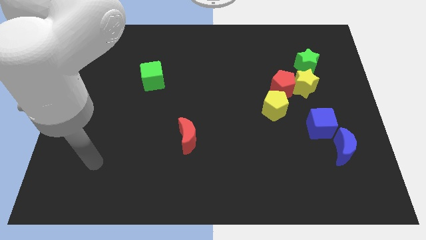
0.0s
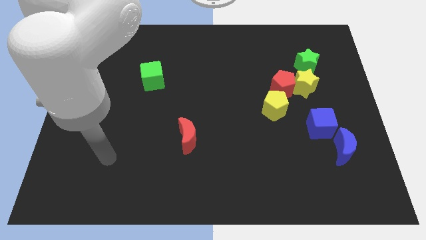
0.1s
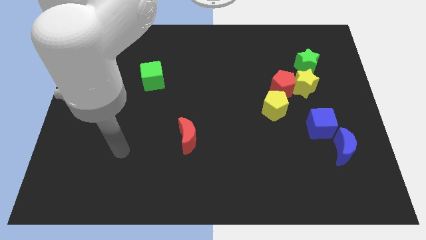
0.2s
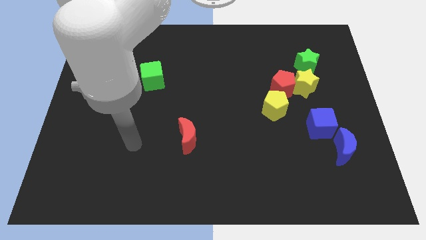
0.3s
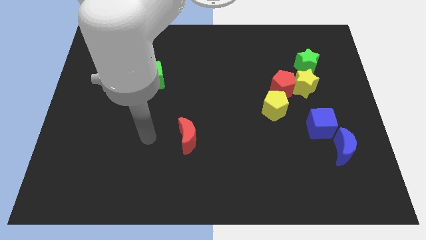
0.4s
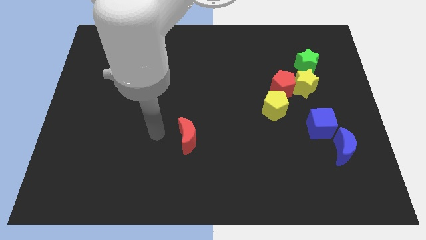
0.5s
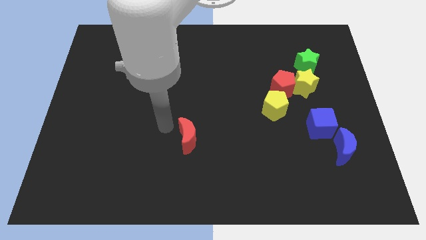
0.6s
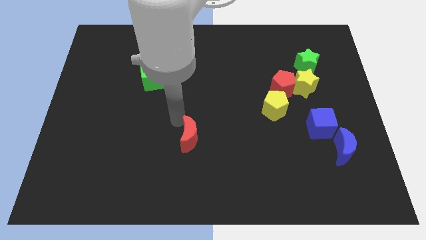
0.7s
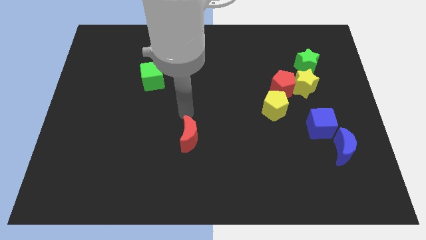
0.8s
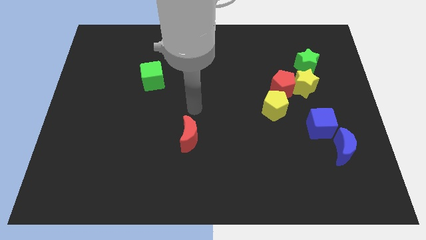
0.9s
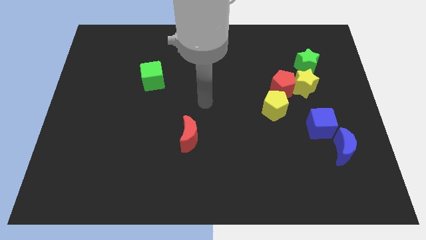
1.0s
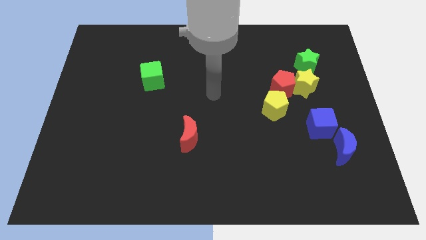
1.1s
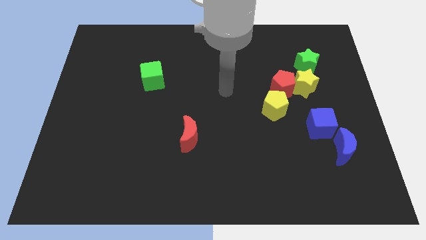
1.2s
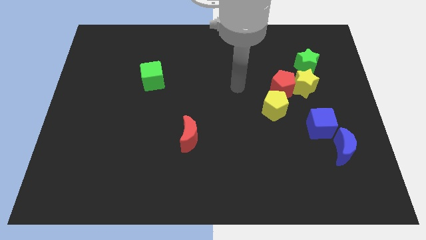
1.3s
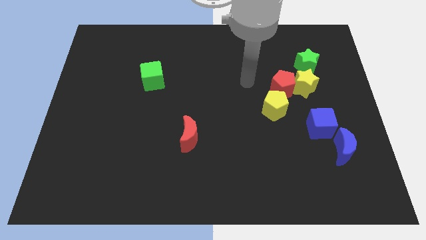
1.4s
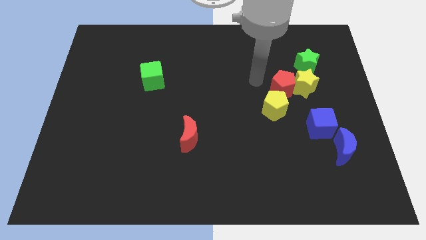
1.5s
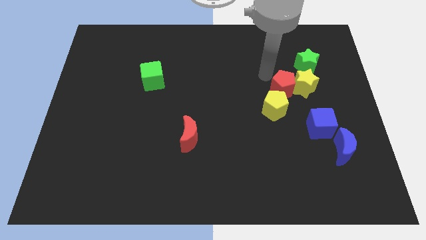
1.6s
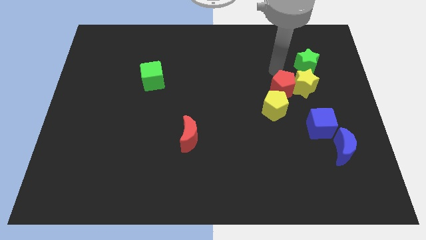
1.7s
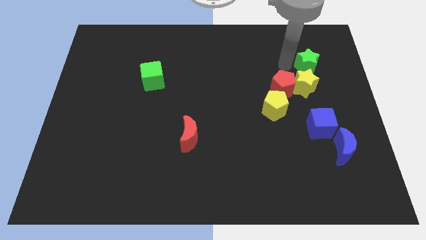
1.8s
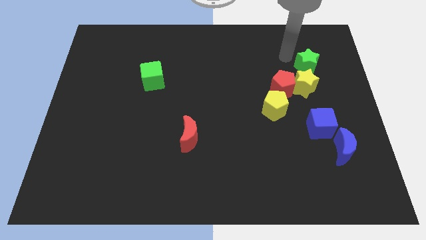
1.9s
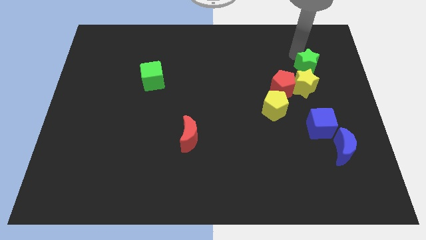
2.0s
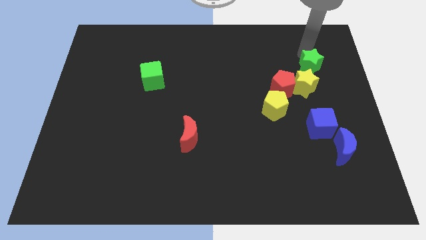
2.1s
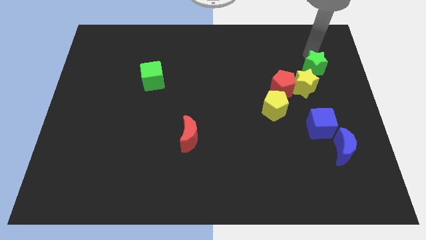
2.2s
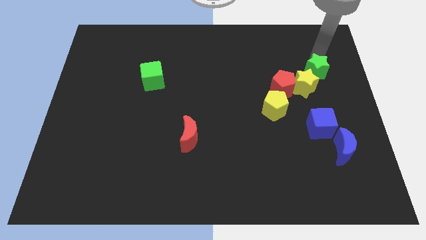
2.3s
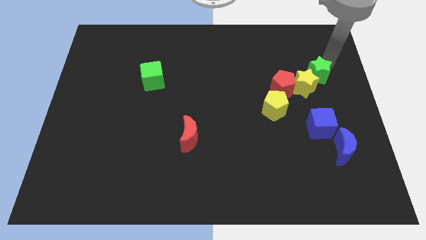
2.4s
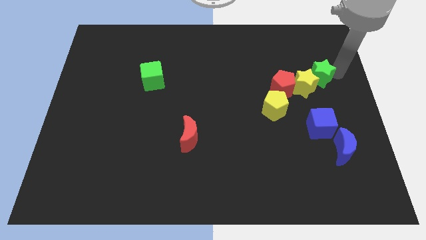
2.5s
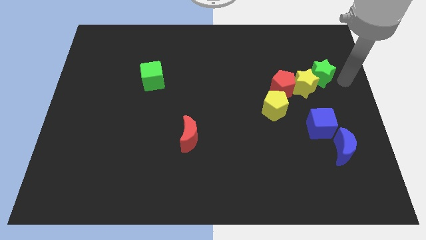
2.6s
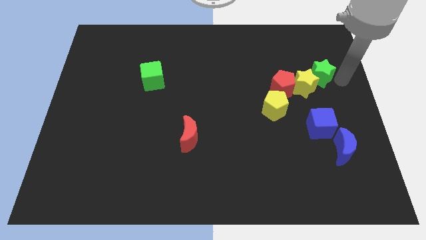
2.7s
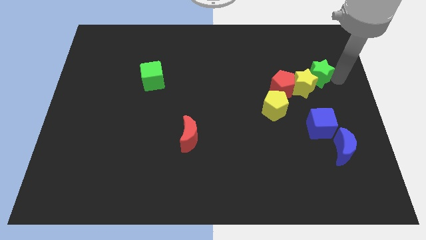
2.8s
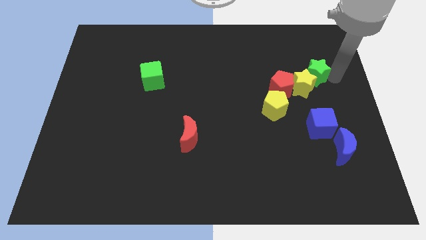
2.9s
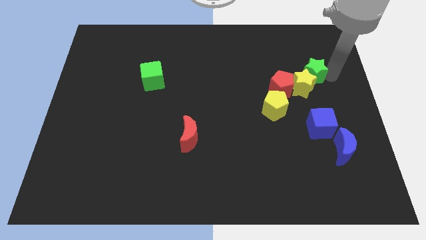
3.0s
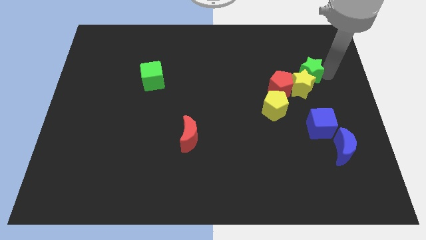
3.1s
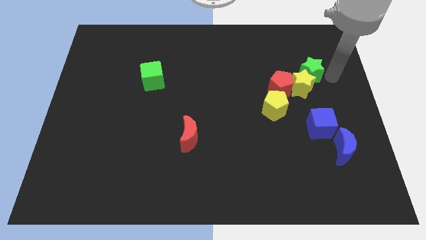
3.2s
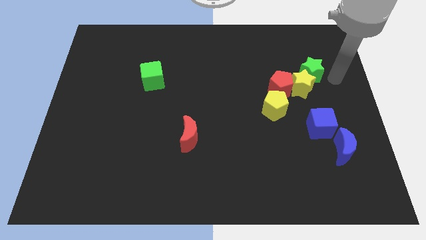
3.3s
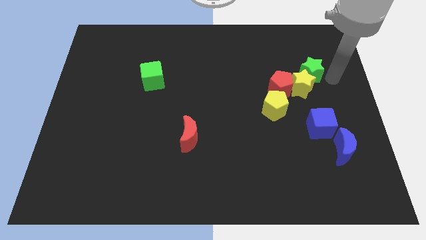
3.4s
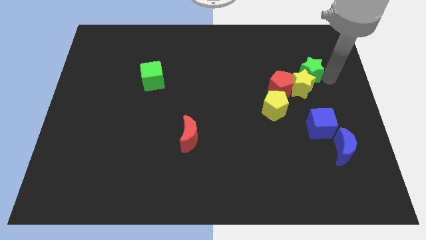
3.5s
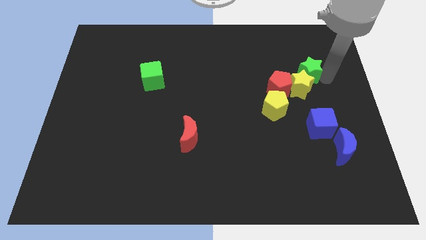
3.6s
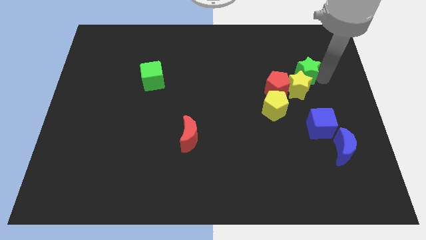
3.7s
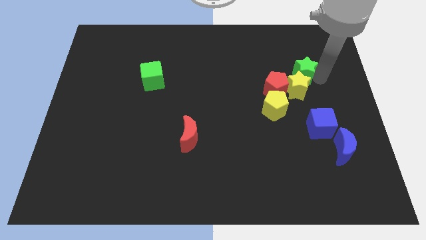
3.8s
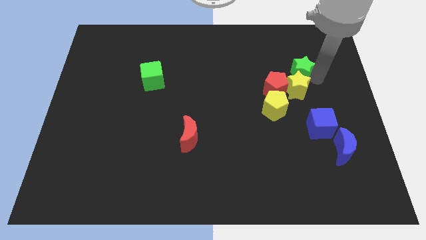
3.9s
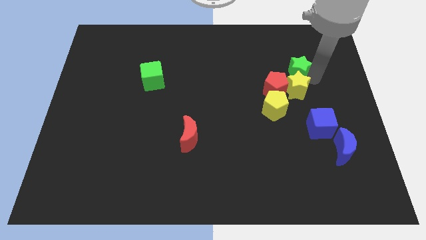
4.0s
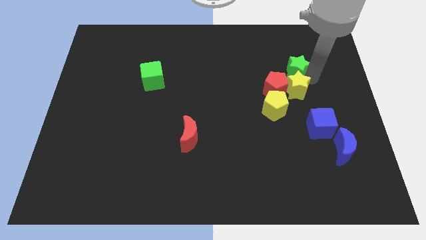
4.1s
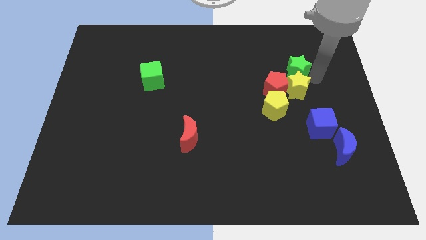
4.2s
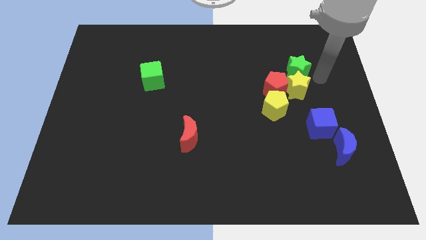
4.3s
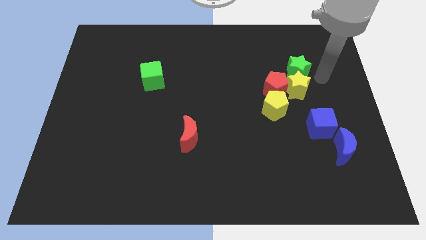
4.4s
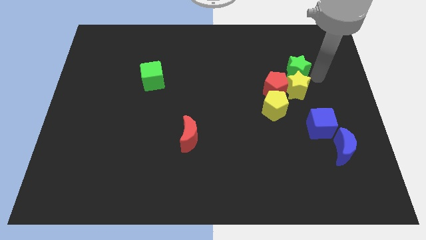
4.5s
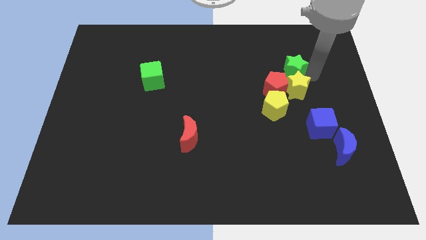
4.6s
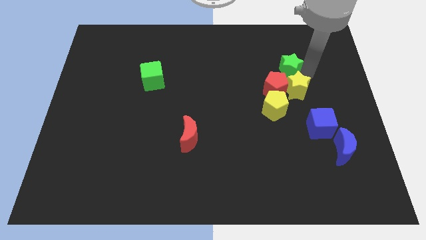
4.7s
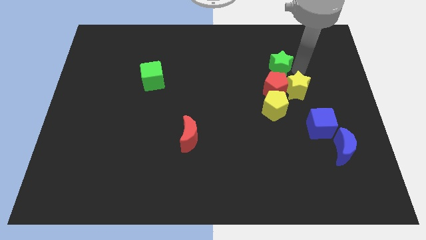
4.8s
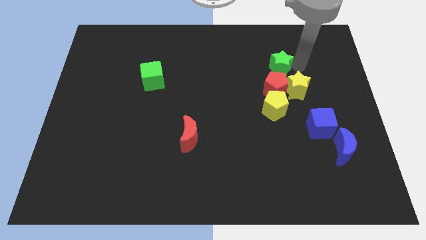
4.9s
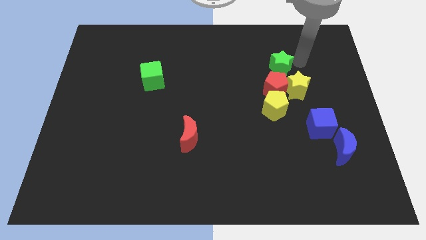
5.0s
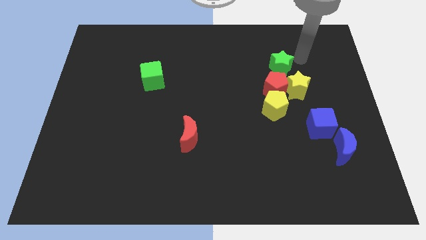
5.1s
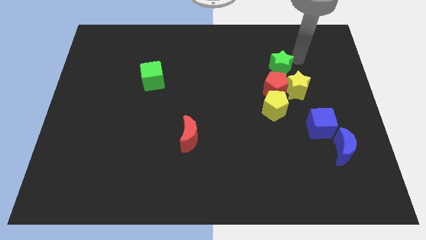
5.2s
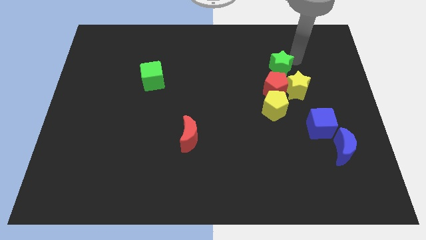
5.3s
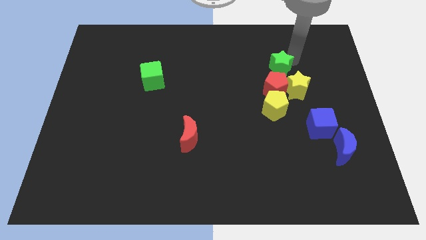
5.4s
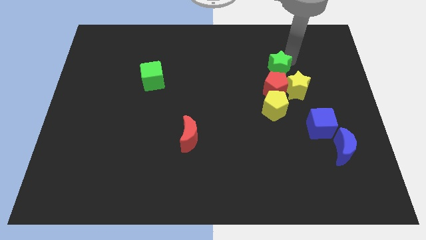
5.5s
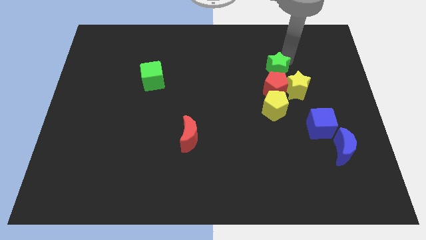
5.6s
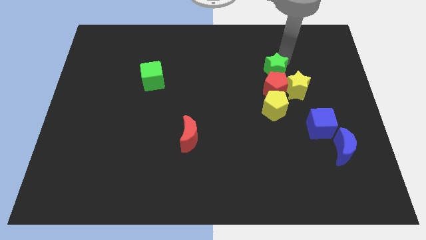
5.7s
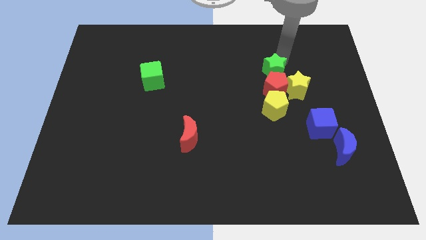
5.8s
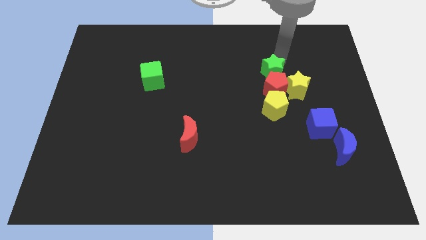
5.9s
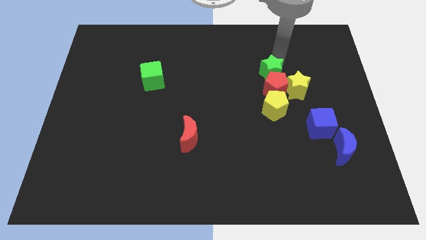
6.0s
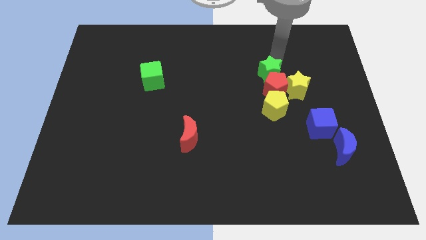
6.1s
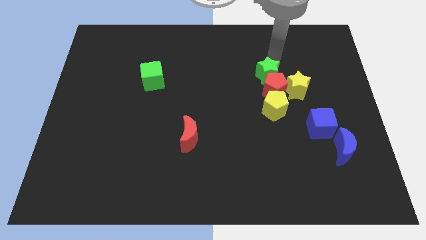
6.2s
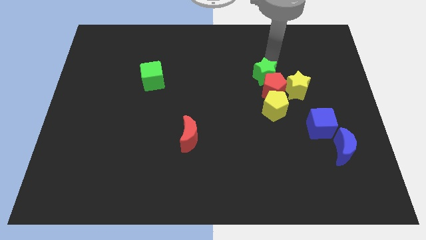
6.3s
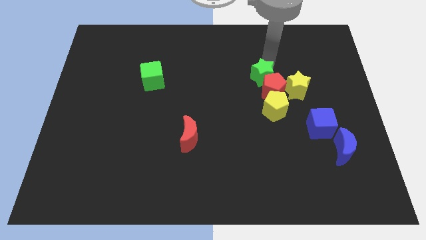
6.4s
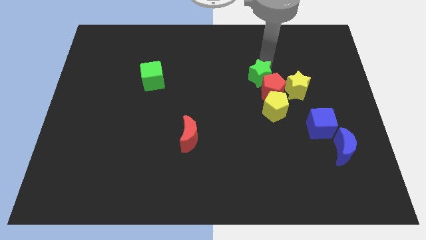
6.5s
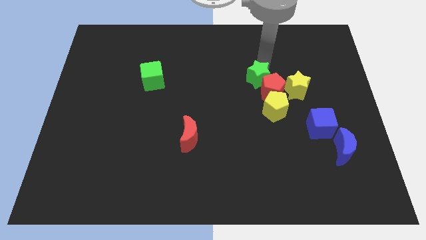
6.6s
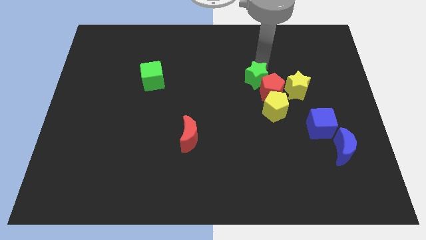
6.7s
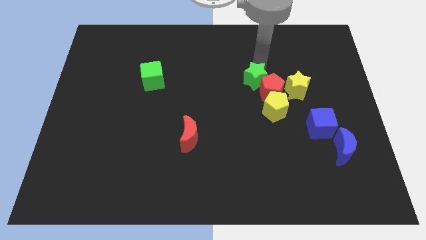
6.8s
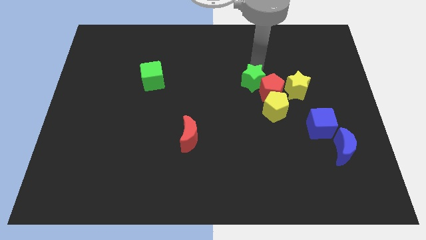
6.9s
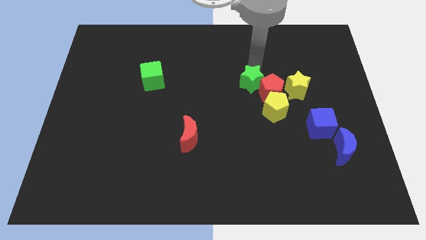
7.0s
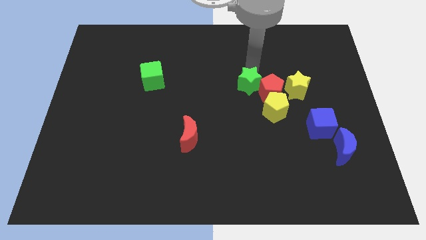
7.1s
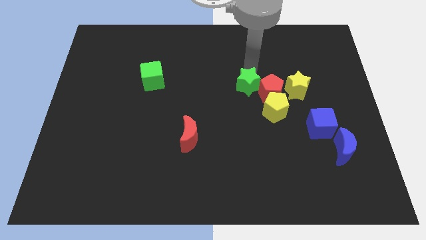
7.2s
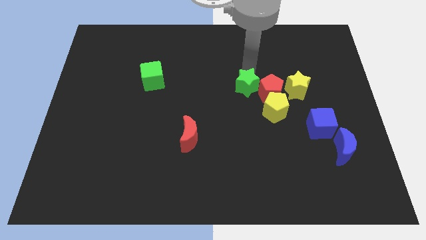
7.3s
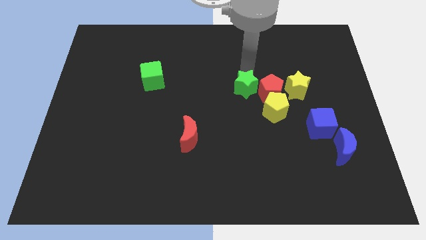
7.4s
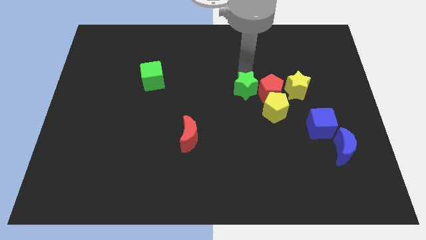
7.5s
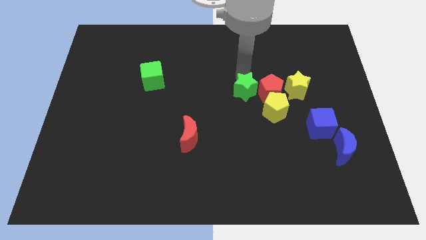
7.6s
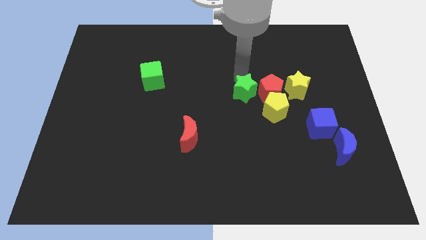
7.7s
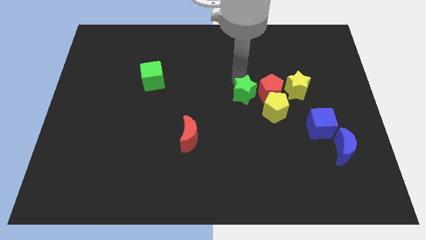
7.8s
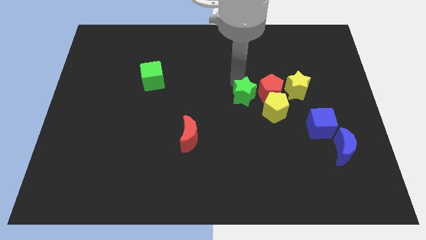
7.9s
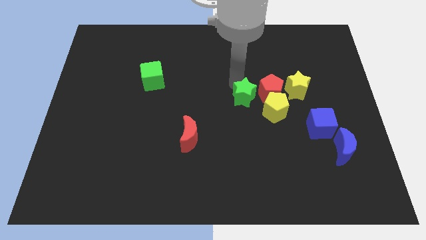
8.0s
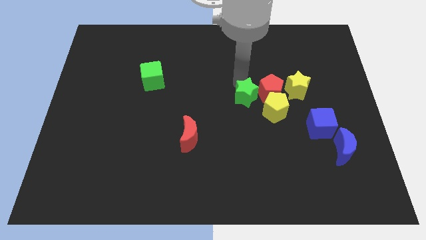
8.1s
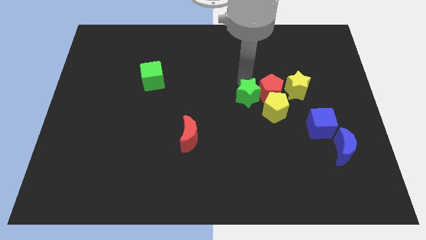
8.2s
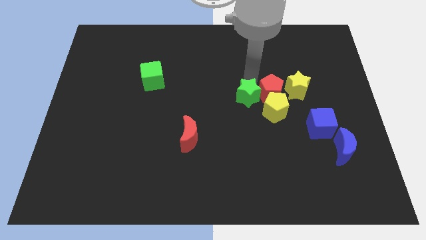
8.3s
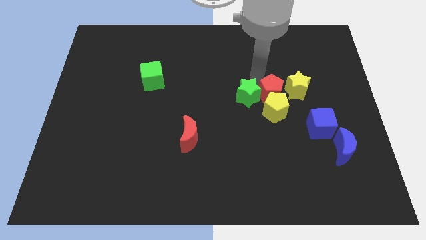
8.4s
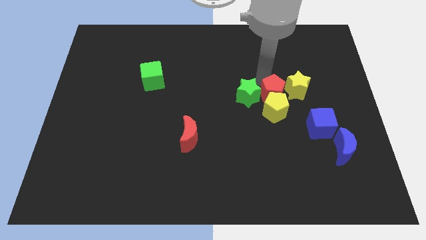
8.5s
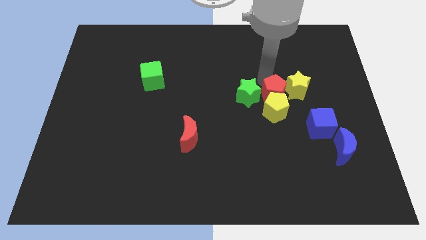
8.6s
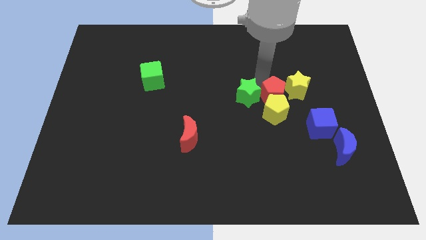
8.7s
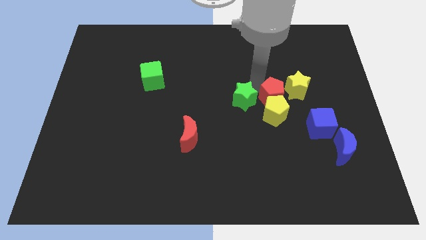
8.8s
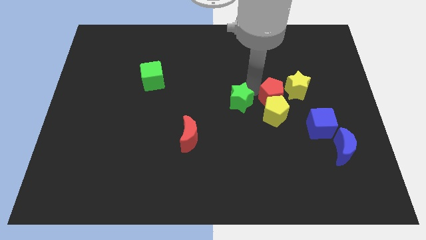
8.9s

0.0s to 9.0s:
slide the green star diagonally downwards and left
